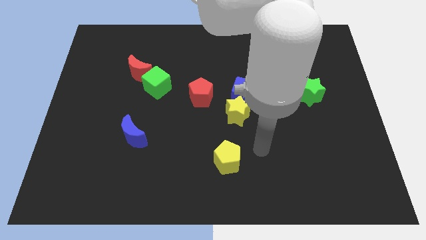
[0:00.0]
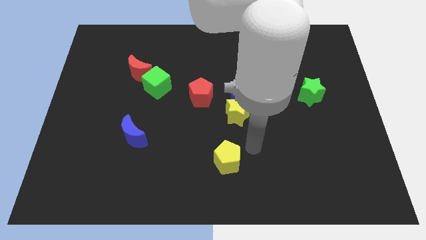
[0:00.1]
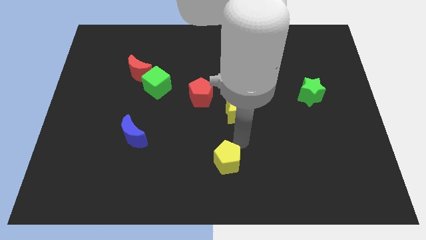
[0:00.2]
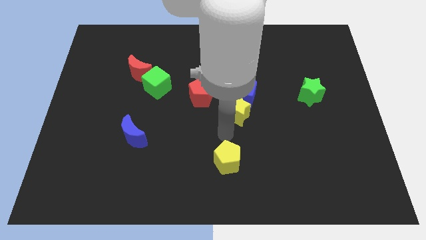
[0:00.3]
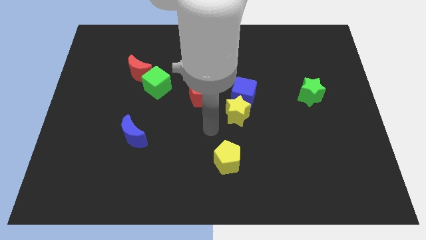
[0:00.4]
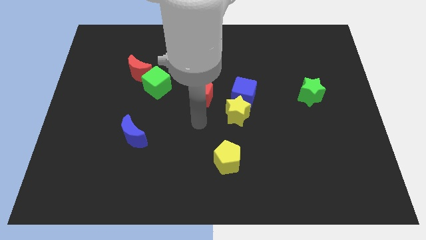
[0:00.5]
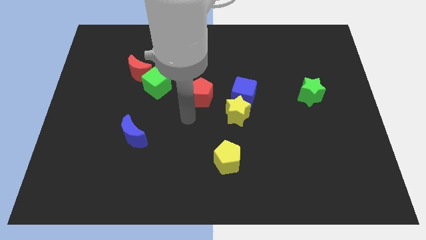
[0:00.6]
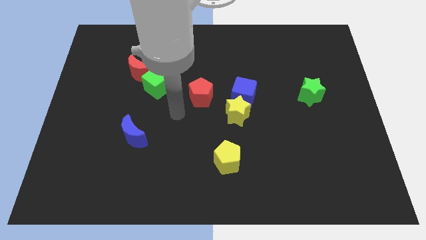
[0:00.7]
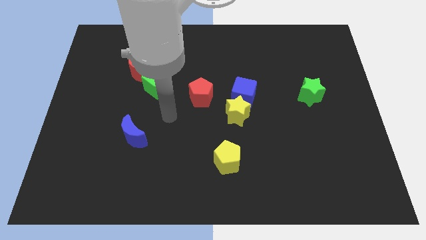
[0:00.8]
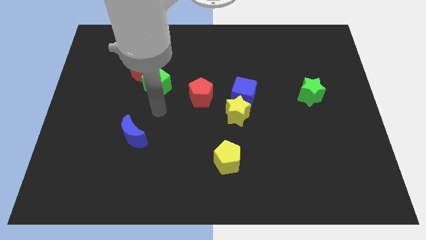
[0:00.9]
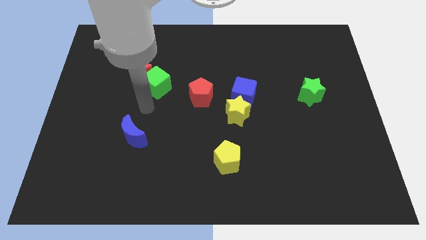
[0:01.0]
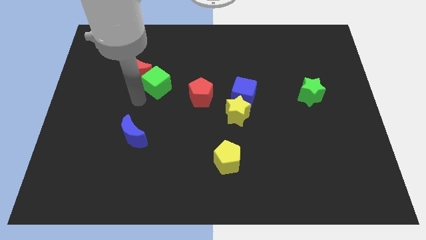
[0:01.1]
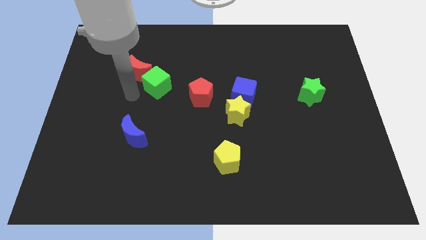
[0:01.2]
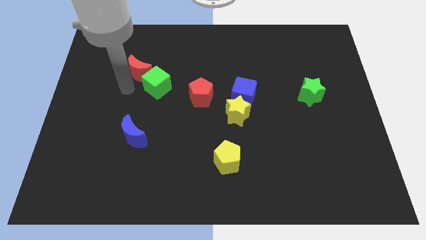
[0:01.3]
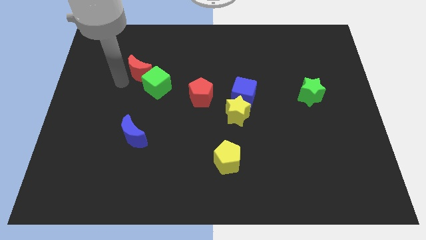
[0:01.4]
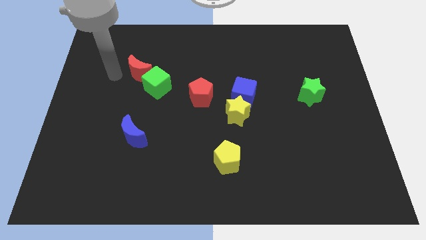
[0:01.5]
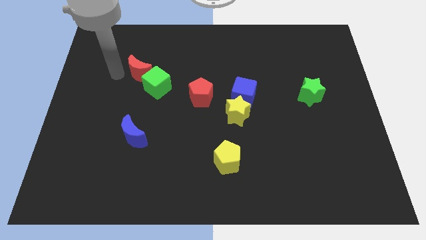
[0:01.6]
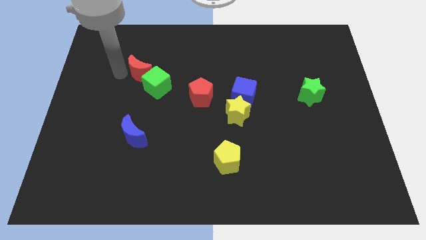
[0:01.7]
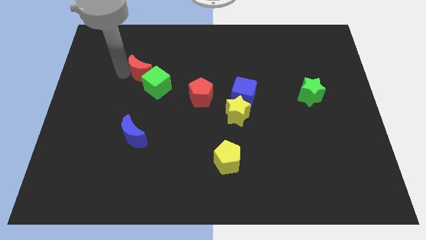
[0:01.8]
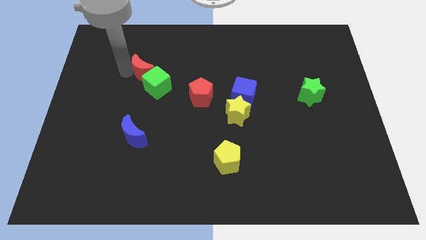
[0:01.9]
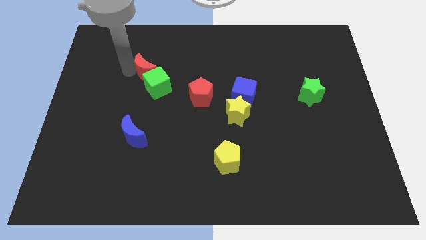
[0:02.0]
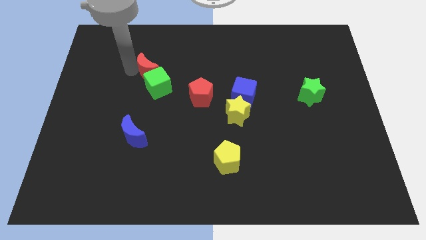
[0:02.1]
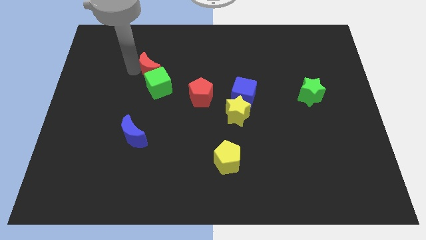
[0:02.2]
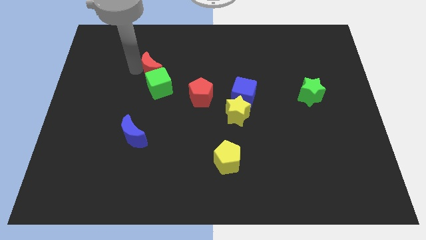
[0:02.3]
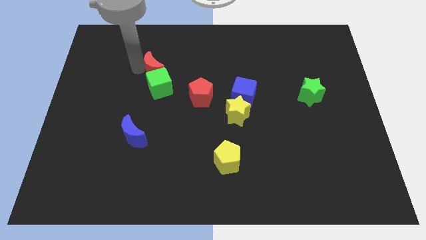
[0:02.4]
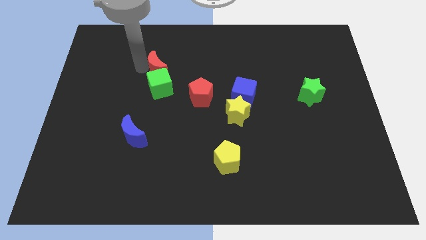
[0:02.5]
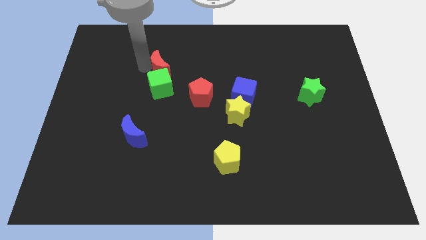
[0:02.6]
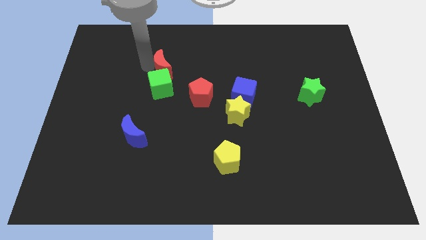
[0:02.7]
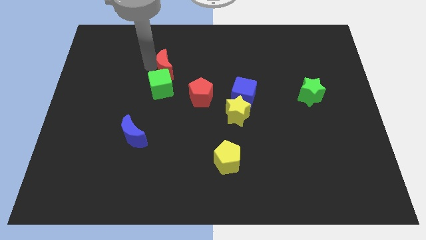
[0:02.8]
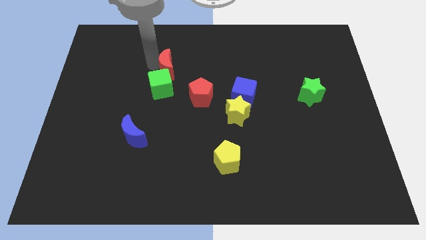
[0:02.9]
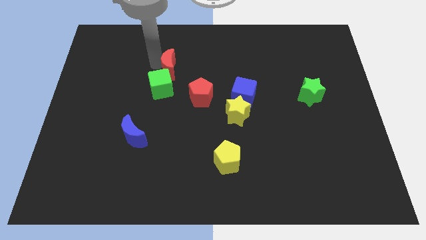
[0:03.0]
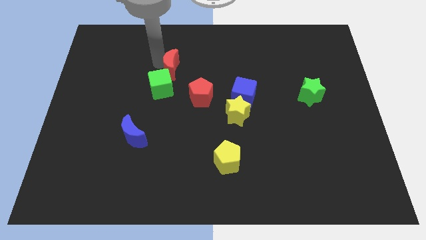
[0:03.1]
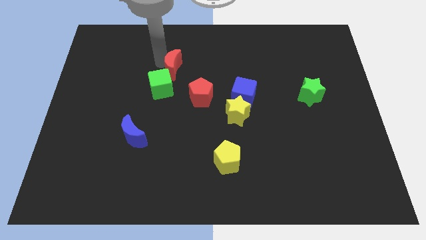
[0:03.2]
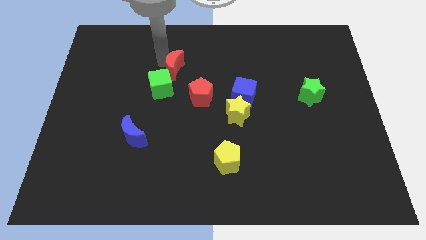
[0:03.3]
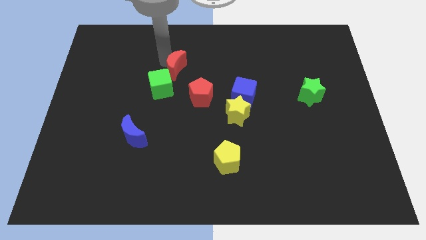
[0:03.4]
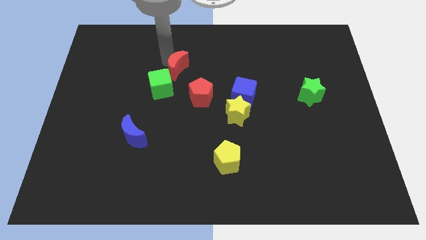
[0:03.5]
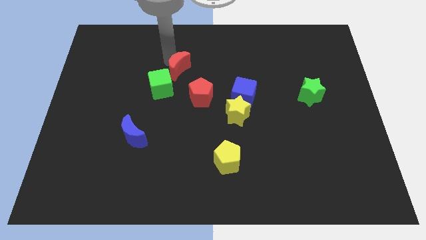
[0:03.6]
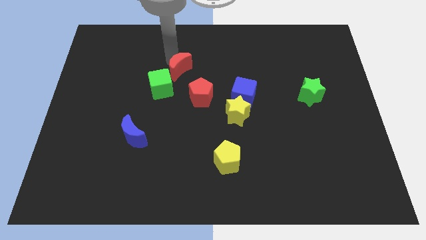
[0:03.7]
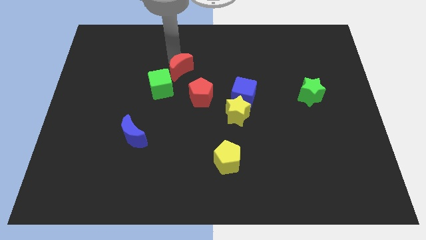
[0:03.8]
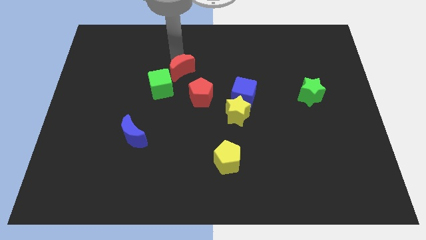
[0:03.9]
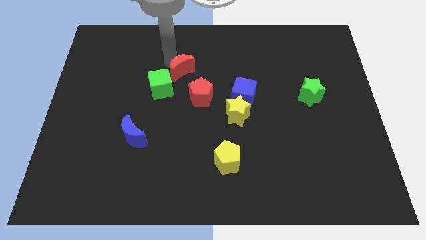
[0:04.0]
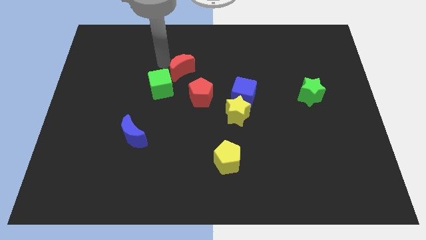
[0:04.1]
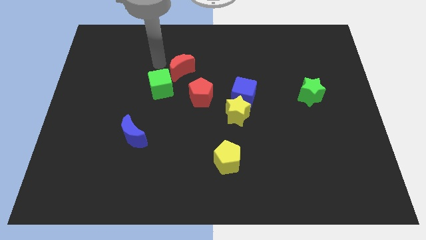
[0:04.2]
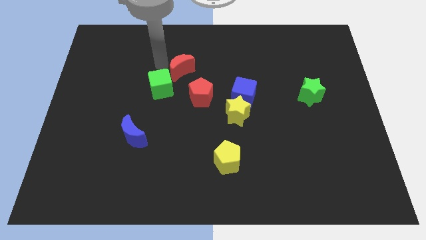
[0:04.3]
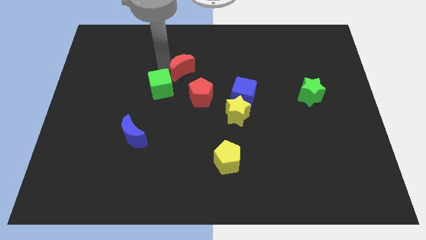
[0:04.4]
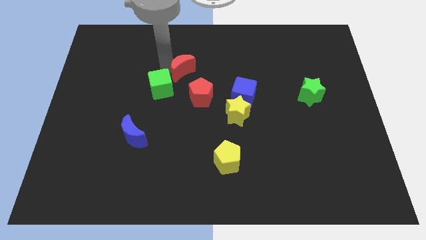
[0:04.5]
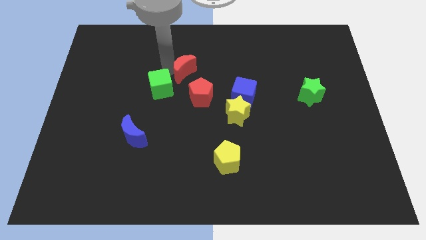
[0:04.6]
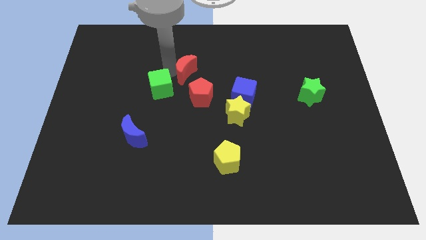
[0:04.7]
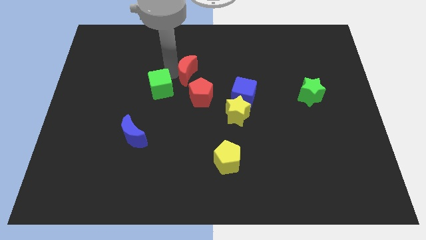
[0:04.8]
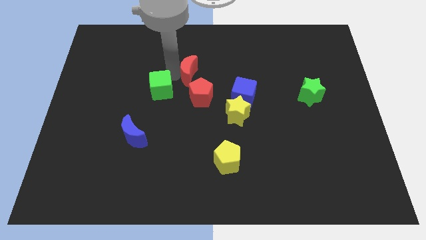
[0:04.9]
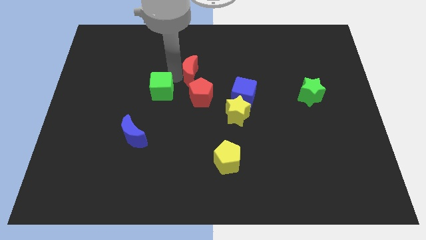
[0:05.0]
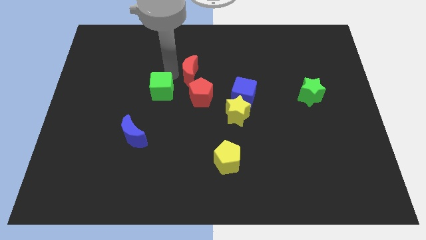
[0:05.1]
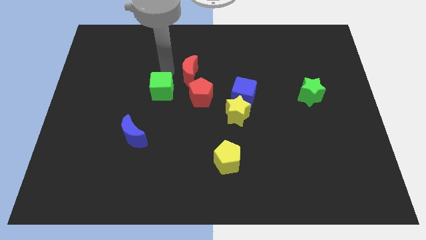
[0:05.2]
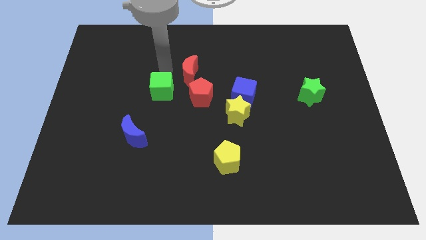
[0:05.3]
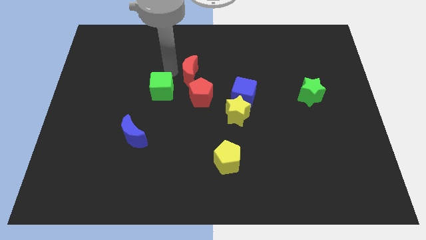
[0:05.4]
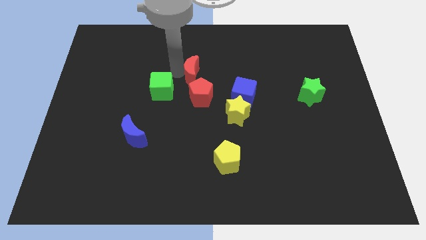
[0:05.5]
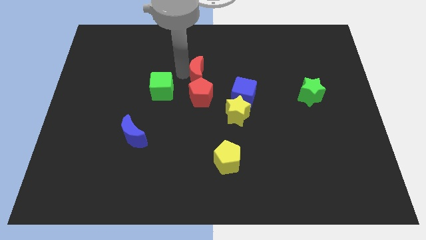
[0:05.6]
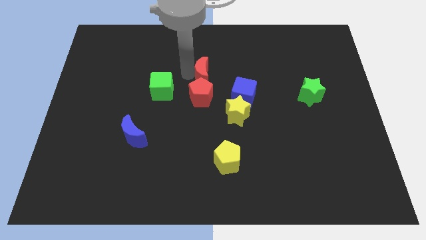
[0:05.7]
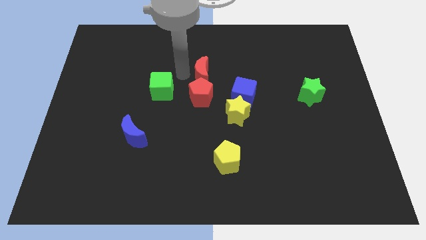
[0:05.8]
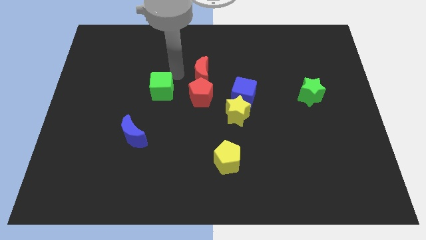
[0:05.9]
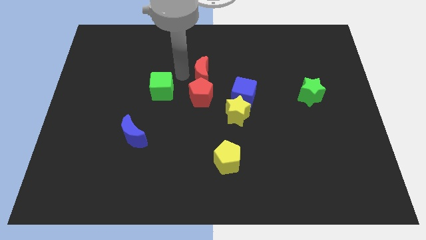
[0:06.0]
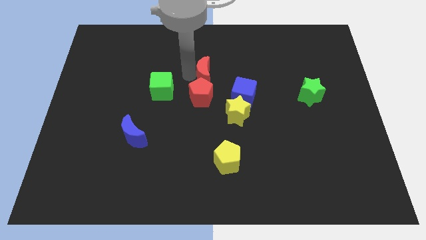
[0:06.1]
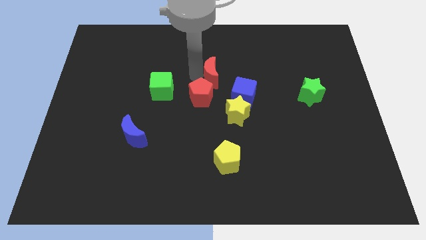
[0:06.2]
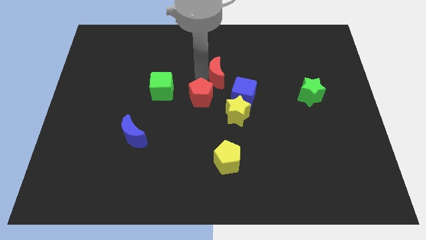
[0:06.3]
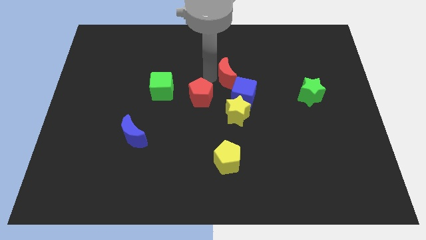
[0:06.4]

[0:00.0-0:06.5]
slide the red moon to the right

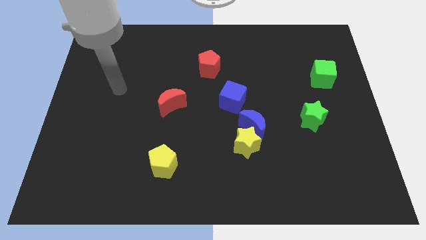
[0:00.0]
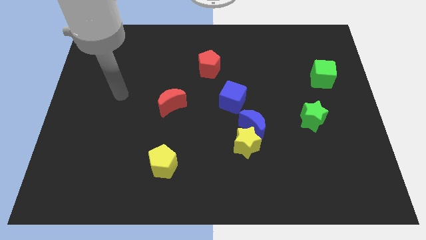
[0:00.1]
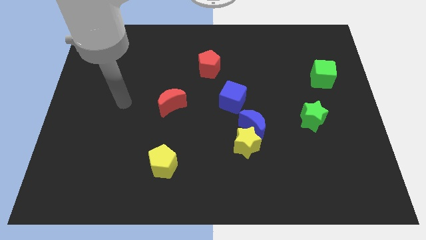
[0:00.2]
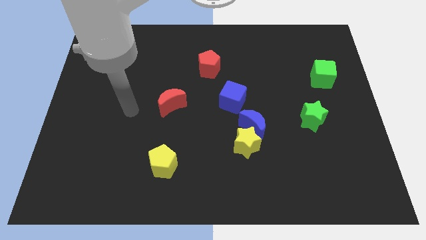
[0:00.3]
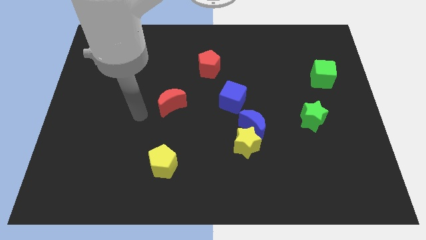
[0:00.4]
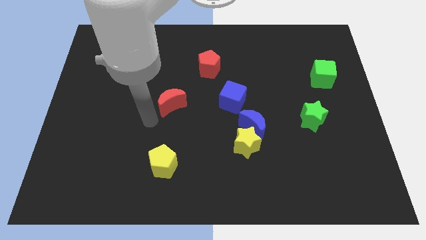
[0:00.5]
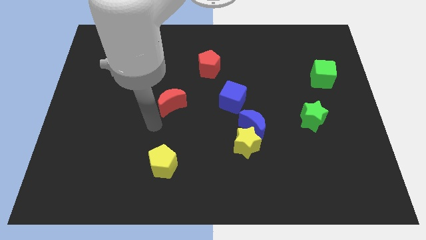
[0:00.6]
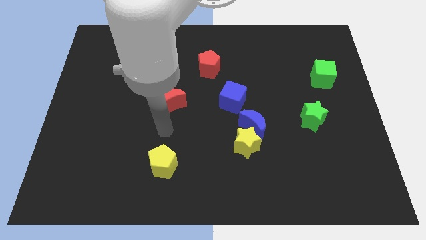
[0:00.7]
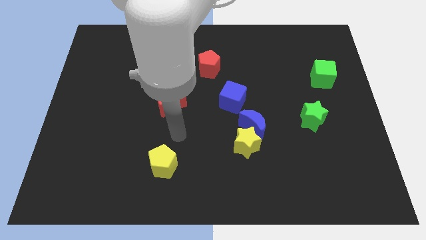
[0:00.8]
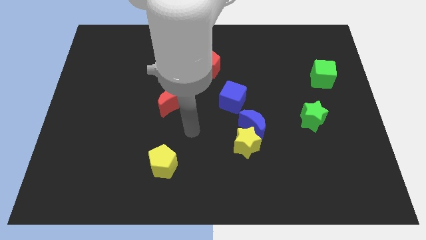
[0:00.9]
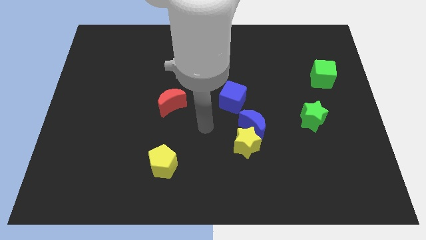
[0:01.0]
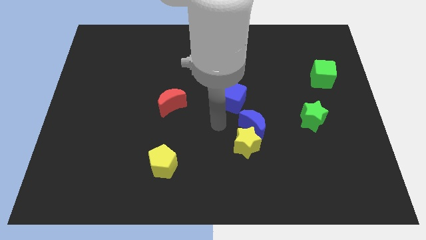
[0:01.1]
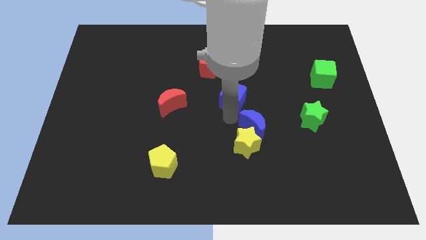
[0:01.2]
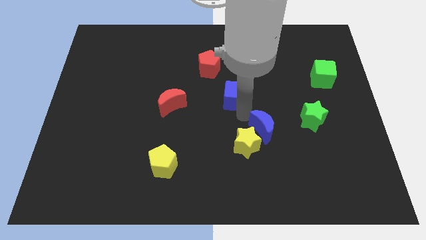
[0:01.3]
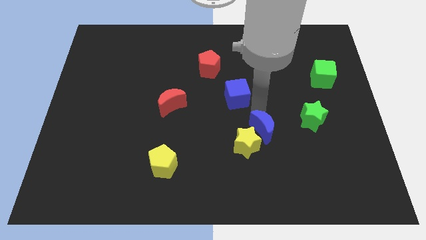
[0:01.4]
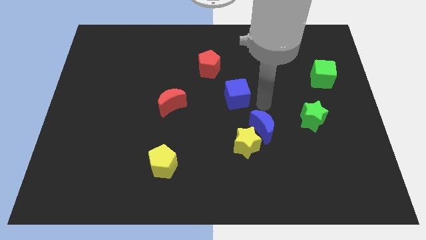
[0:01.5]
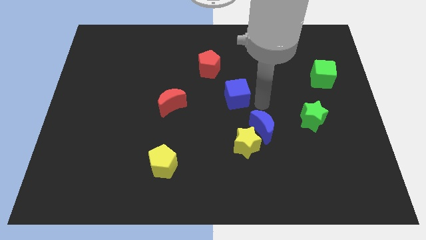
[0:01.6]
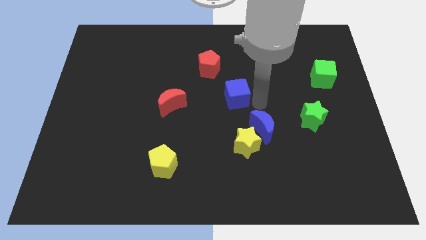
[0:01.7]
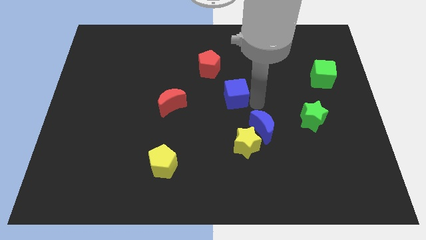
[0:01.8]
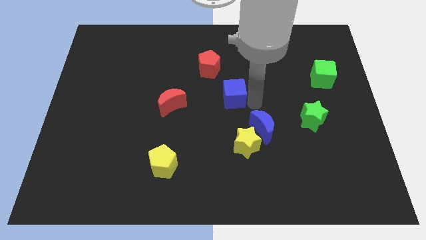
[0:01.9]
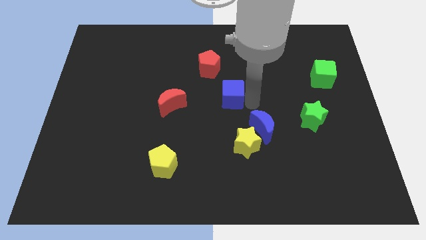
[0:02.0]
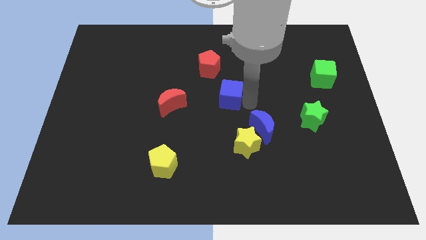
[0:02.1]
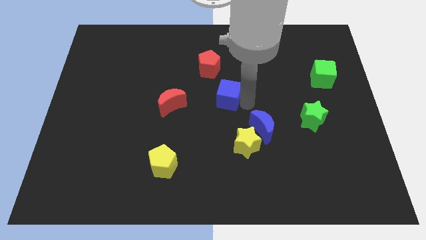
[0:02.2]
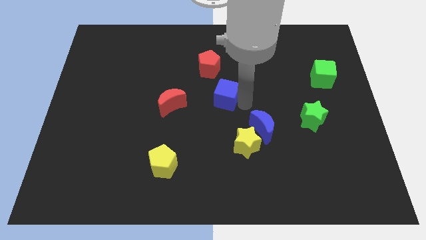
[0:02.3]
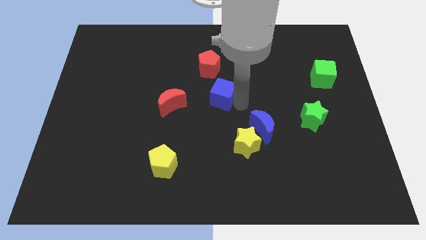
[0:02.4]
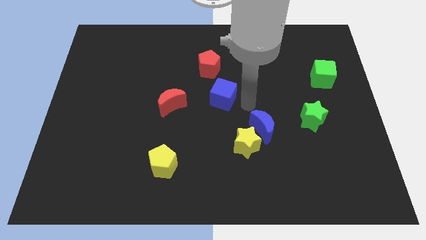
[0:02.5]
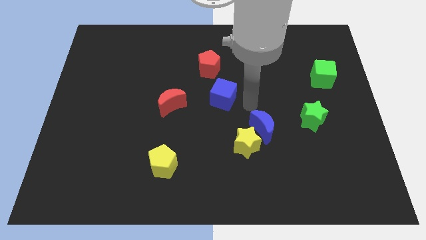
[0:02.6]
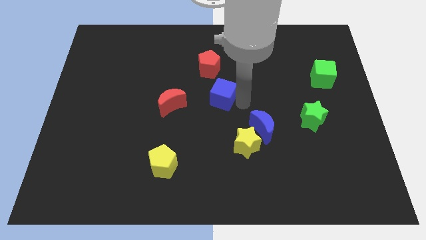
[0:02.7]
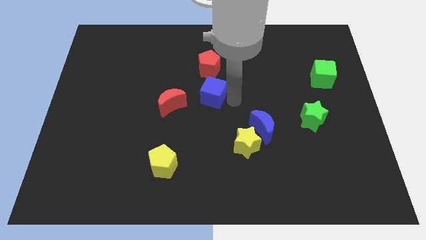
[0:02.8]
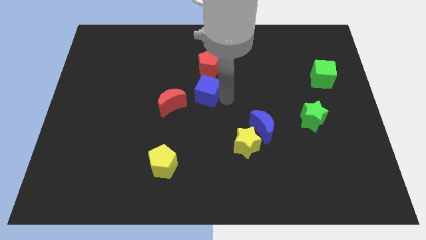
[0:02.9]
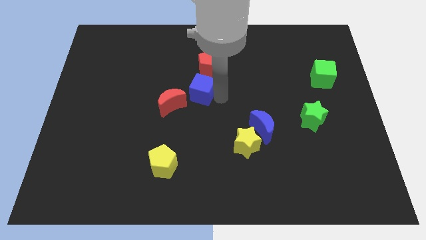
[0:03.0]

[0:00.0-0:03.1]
move the blue cube to the left a little
